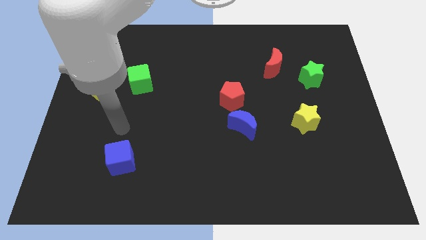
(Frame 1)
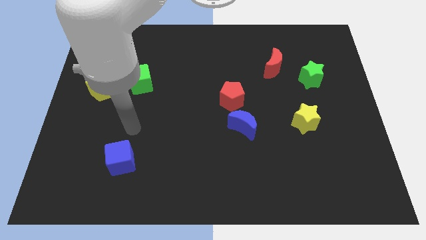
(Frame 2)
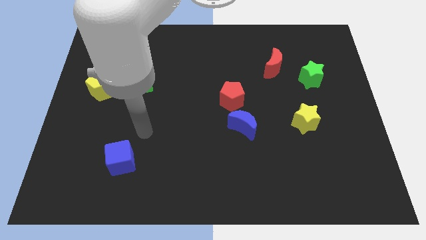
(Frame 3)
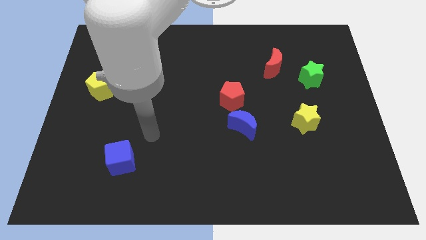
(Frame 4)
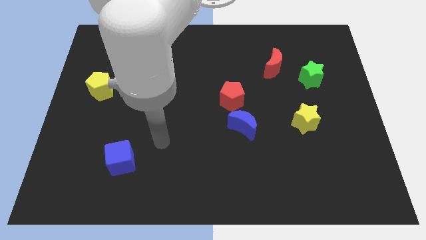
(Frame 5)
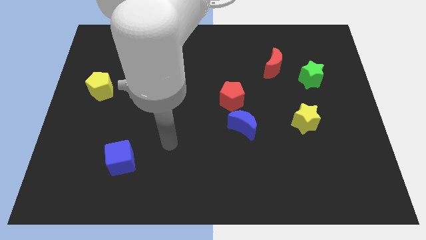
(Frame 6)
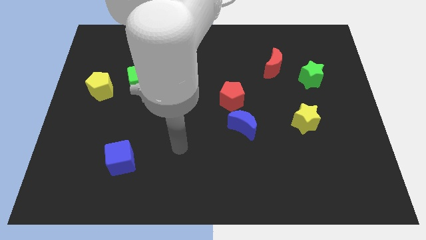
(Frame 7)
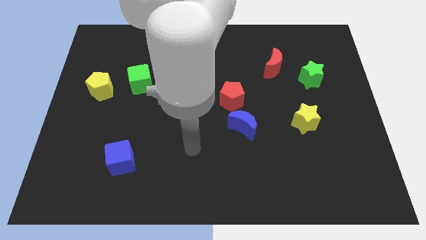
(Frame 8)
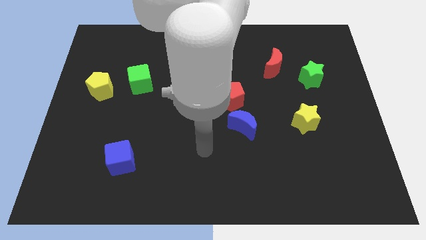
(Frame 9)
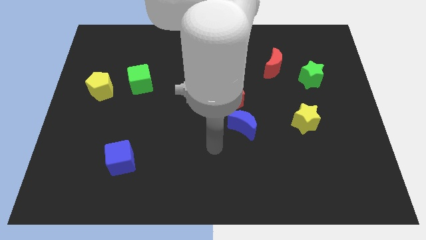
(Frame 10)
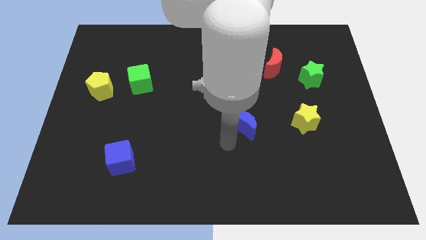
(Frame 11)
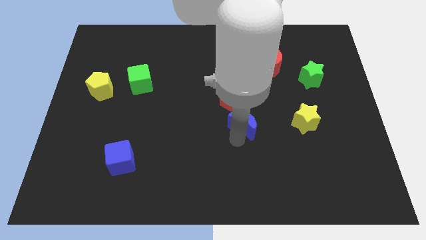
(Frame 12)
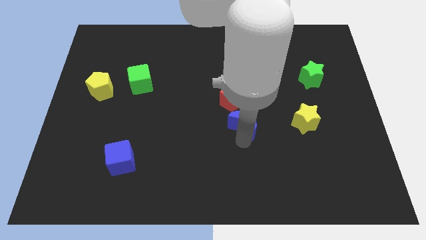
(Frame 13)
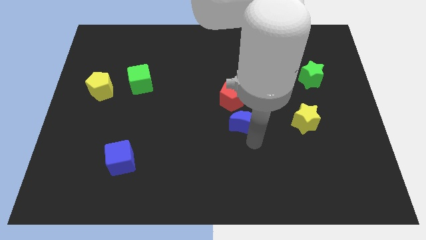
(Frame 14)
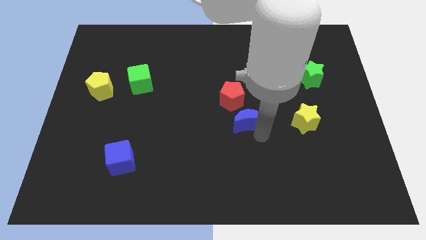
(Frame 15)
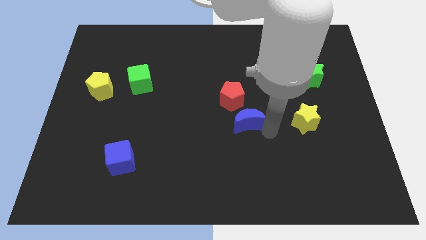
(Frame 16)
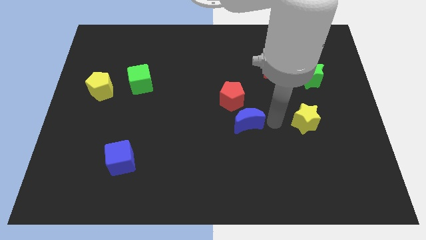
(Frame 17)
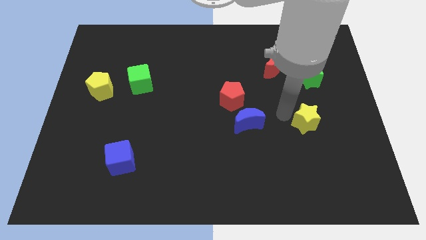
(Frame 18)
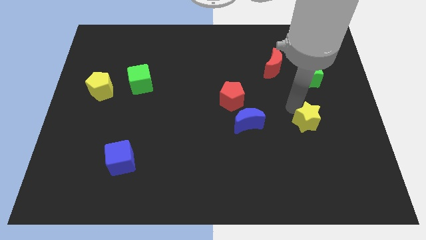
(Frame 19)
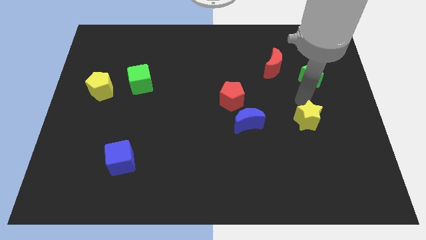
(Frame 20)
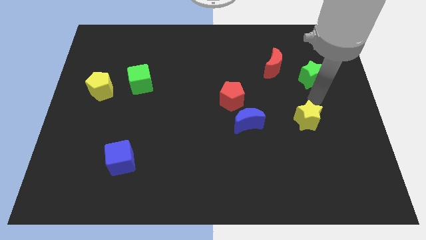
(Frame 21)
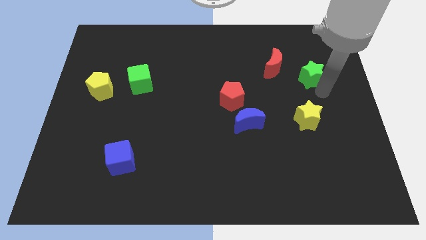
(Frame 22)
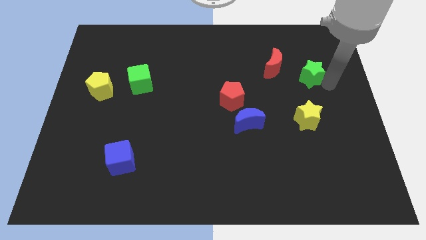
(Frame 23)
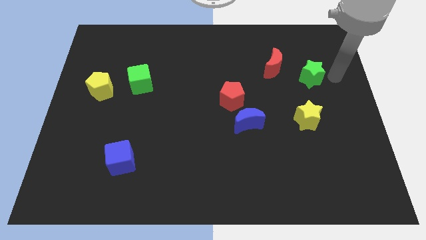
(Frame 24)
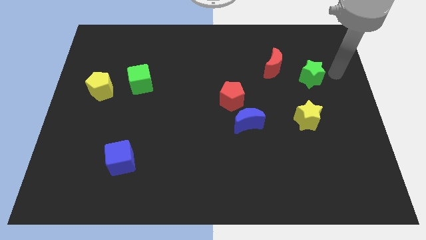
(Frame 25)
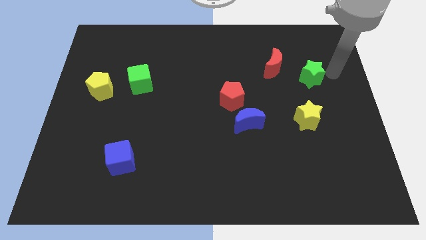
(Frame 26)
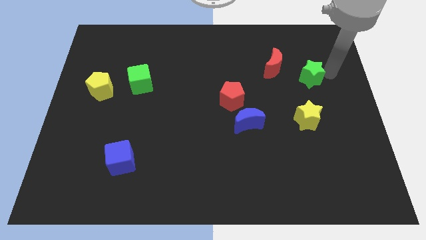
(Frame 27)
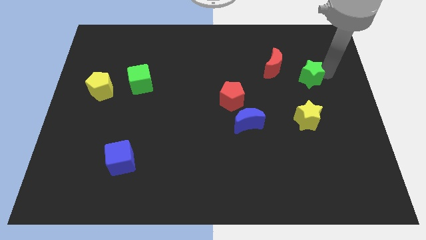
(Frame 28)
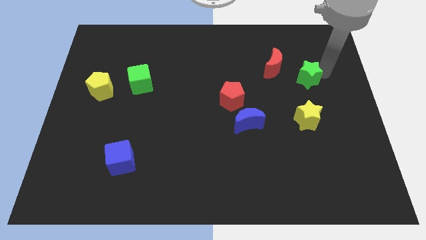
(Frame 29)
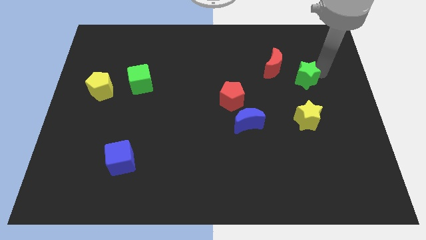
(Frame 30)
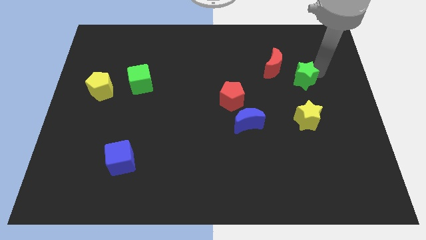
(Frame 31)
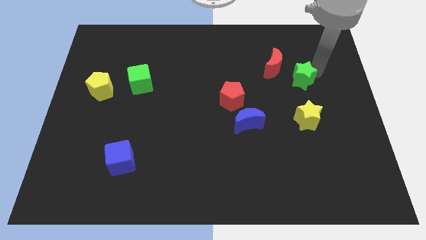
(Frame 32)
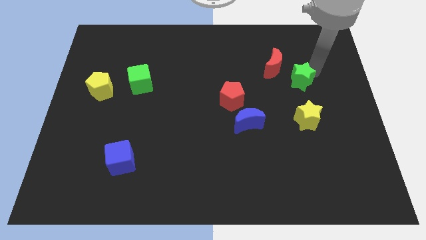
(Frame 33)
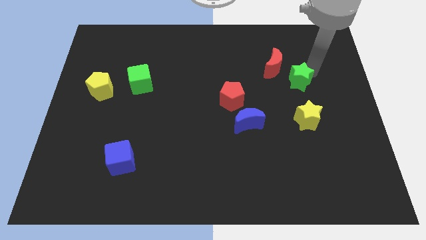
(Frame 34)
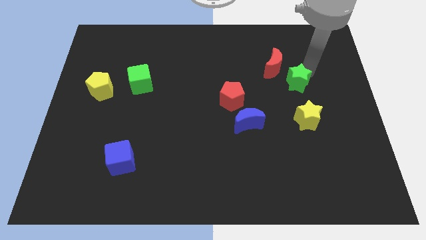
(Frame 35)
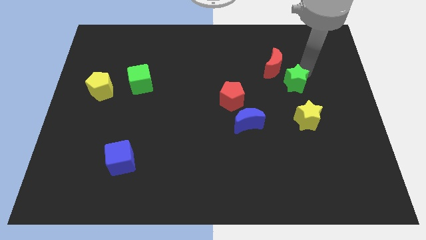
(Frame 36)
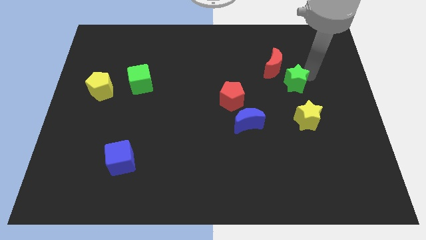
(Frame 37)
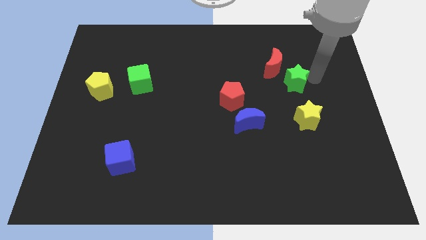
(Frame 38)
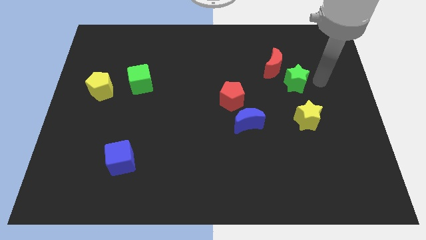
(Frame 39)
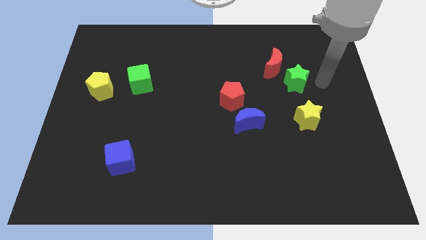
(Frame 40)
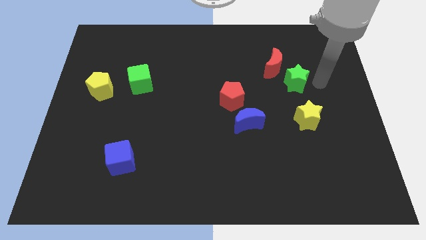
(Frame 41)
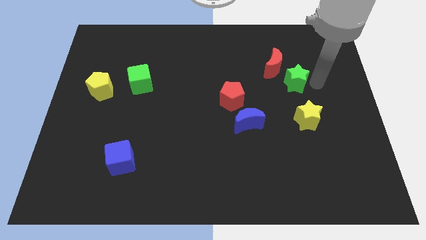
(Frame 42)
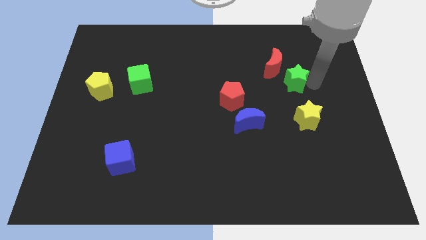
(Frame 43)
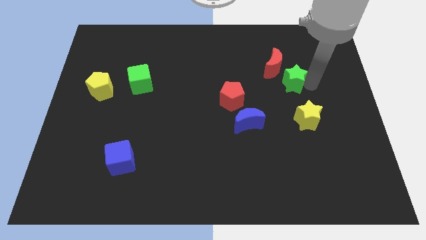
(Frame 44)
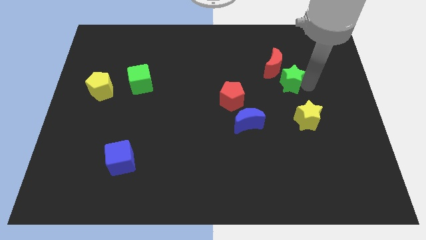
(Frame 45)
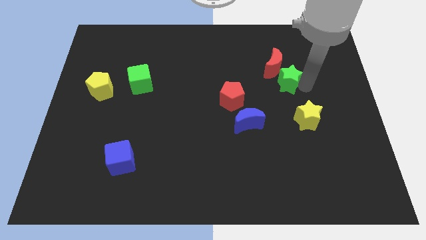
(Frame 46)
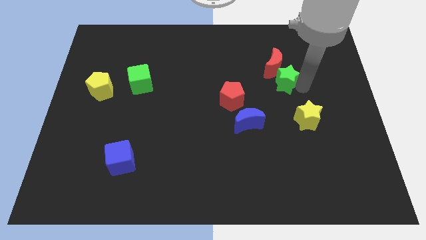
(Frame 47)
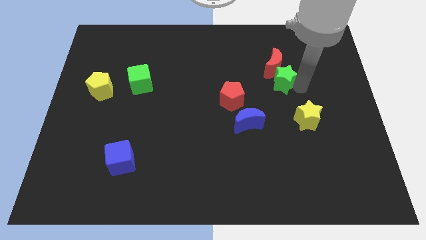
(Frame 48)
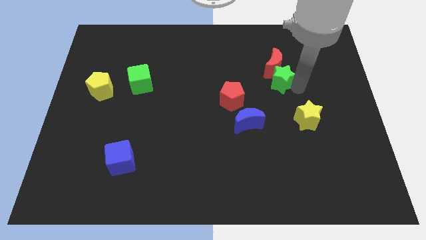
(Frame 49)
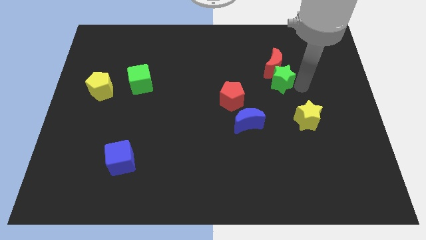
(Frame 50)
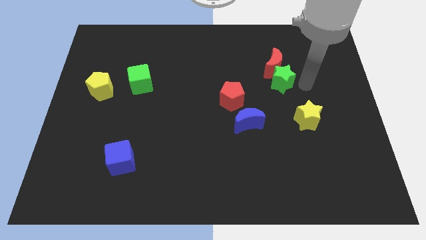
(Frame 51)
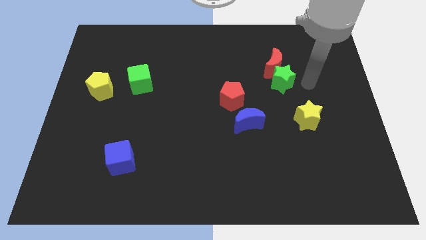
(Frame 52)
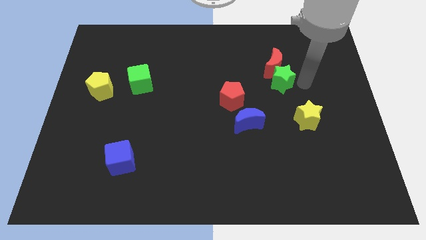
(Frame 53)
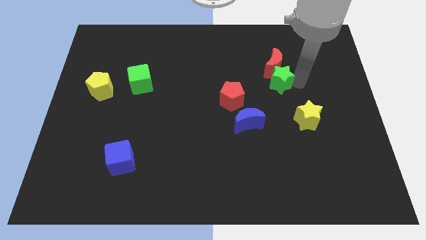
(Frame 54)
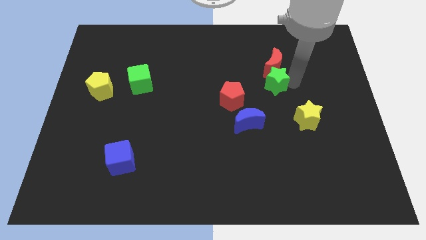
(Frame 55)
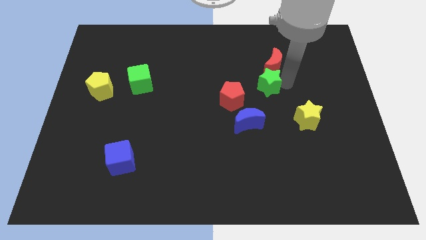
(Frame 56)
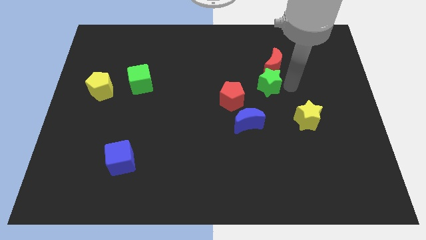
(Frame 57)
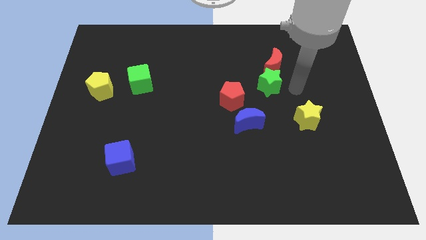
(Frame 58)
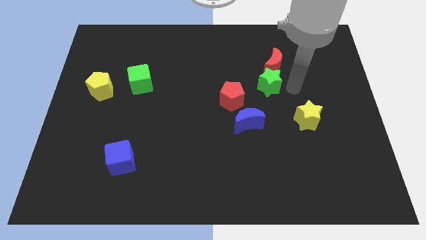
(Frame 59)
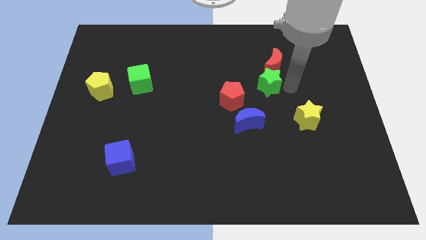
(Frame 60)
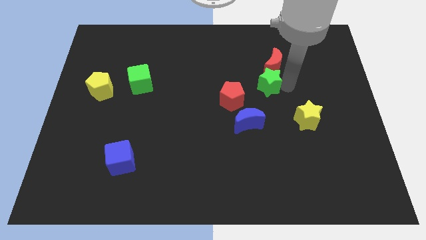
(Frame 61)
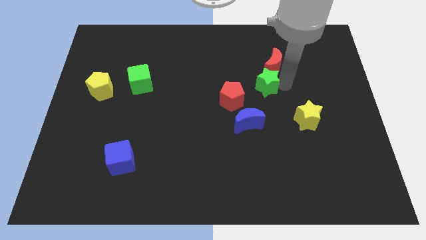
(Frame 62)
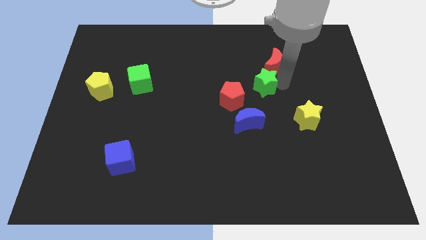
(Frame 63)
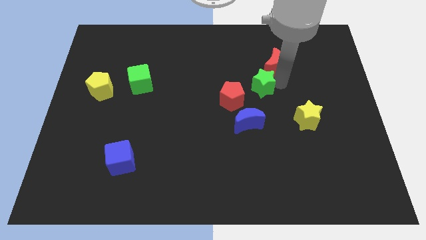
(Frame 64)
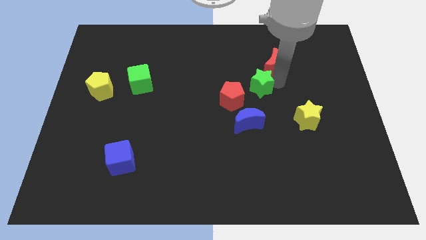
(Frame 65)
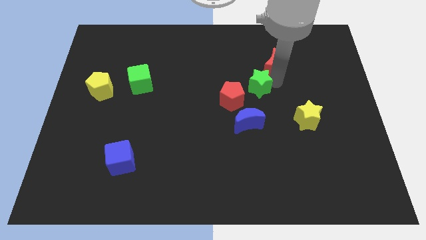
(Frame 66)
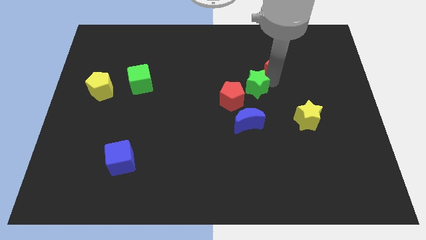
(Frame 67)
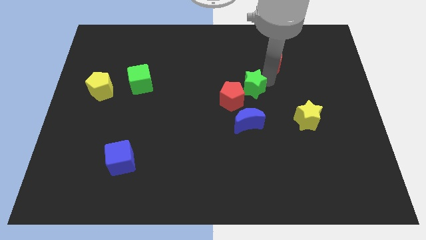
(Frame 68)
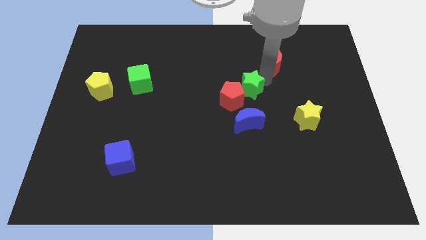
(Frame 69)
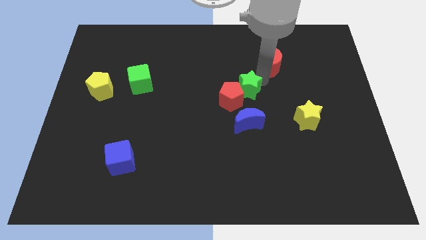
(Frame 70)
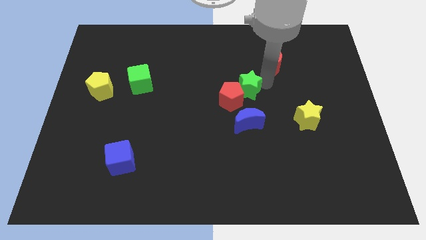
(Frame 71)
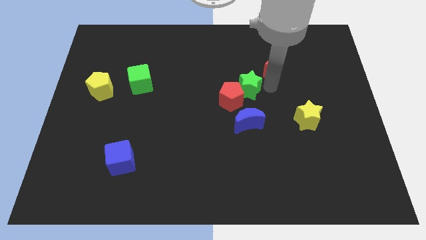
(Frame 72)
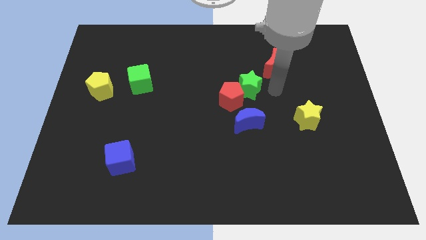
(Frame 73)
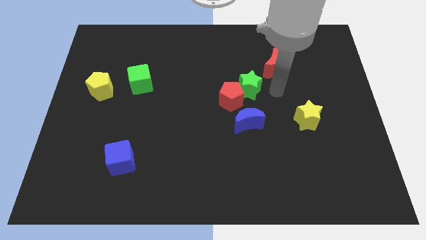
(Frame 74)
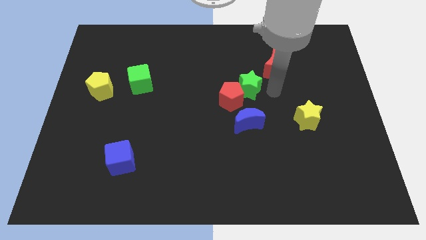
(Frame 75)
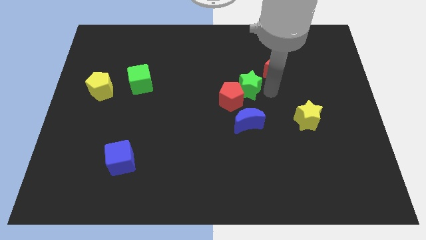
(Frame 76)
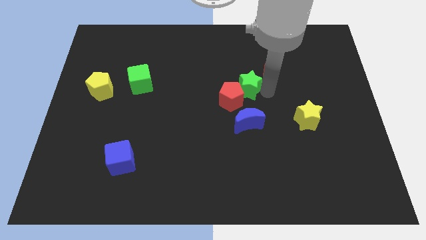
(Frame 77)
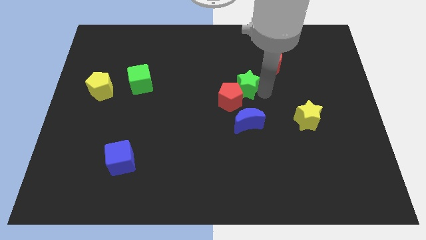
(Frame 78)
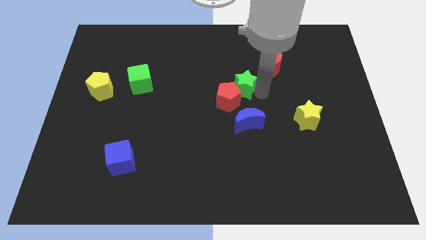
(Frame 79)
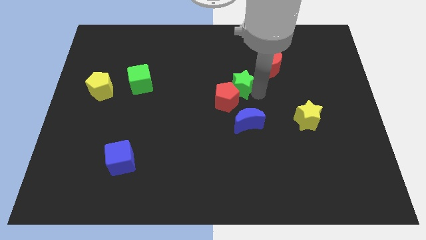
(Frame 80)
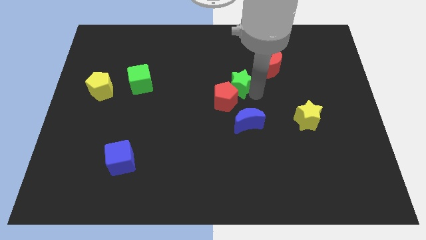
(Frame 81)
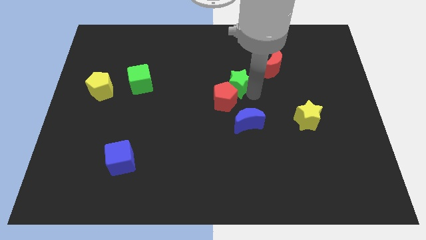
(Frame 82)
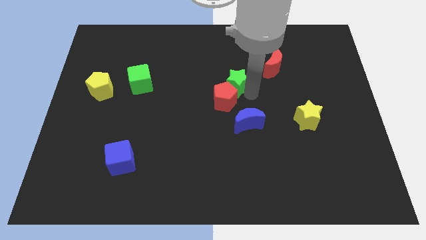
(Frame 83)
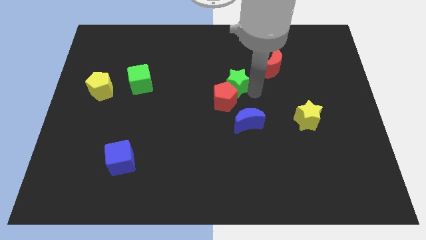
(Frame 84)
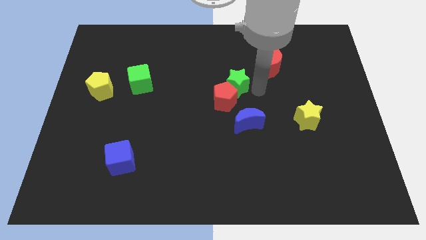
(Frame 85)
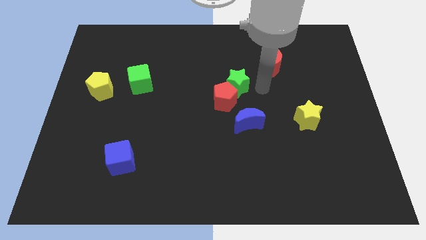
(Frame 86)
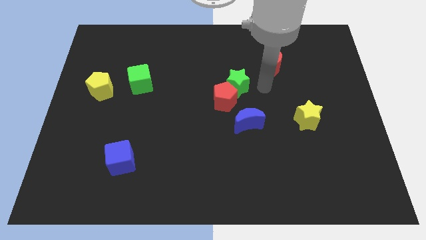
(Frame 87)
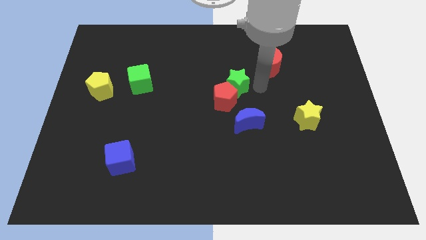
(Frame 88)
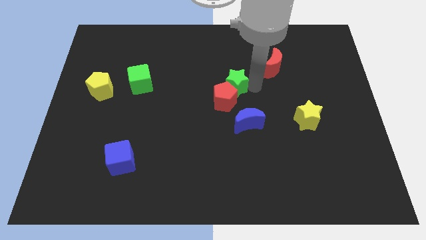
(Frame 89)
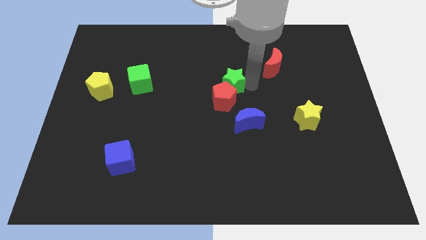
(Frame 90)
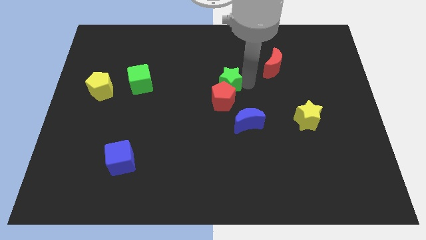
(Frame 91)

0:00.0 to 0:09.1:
move the green star to the left
